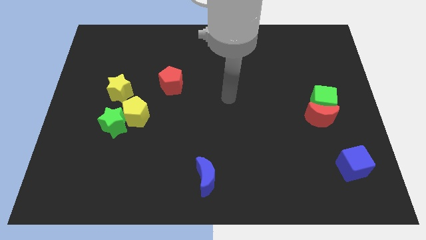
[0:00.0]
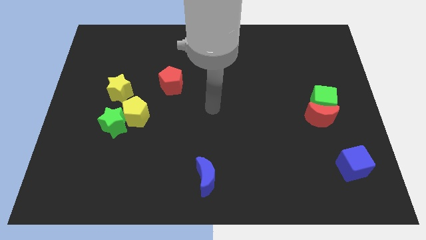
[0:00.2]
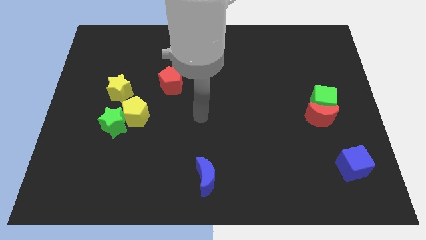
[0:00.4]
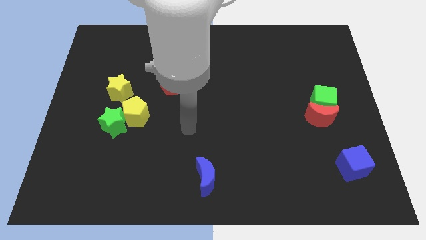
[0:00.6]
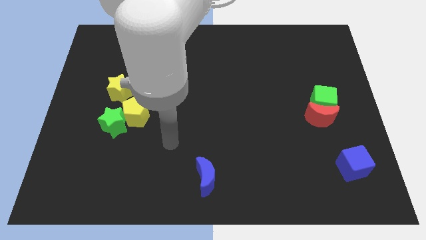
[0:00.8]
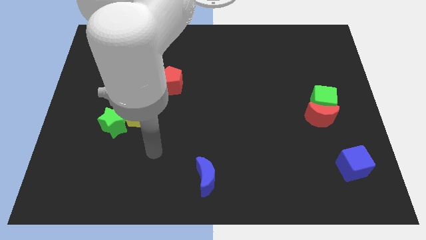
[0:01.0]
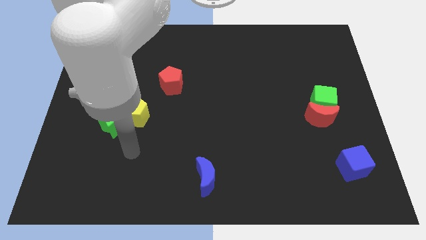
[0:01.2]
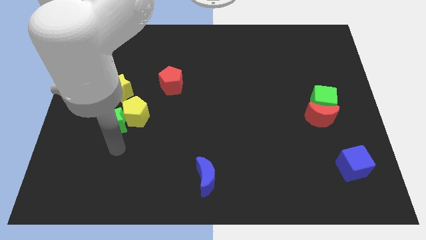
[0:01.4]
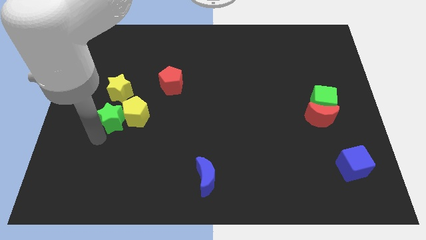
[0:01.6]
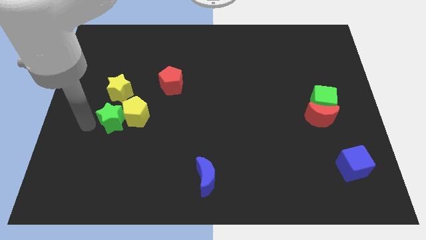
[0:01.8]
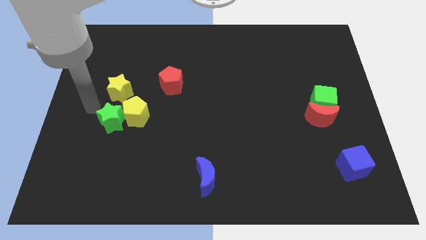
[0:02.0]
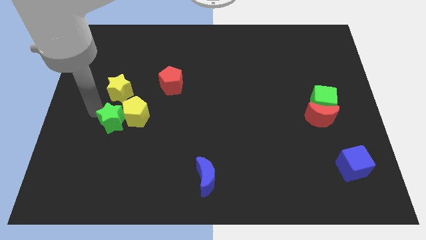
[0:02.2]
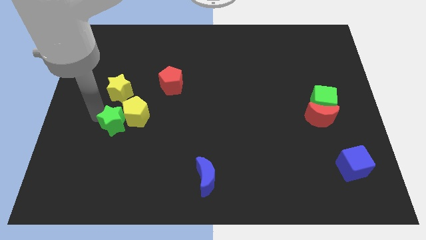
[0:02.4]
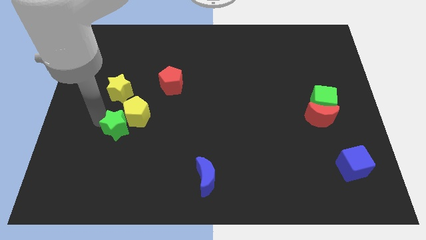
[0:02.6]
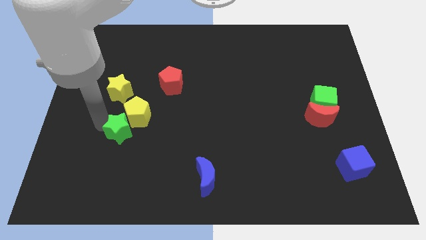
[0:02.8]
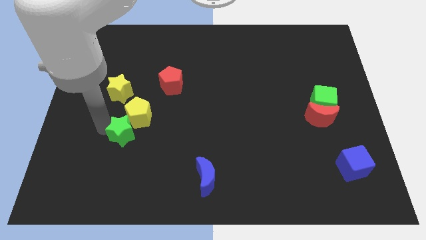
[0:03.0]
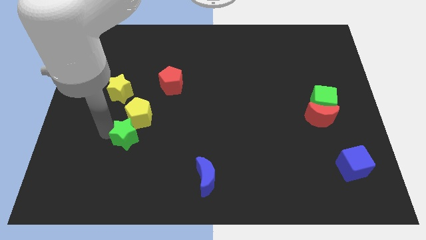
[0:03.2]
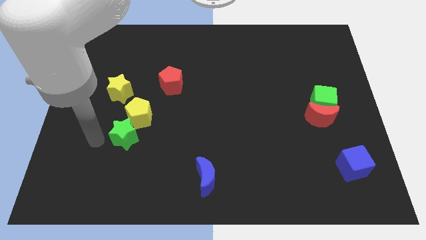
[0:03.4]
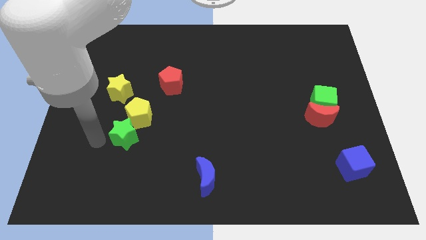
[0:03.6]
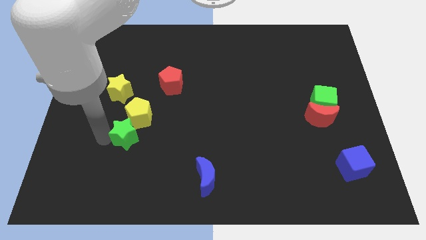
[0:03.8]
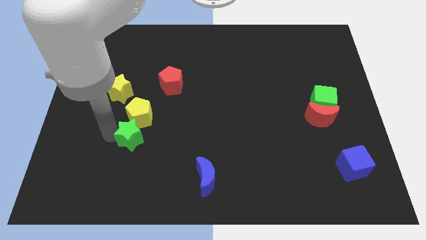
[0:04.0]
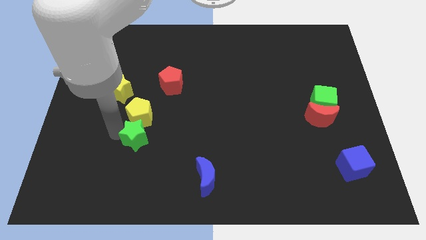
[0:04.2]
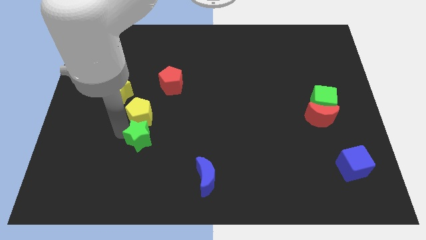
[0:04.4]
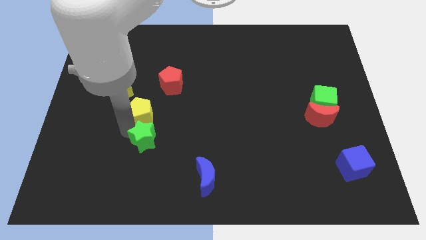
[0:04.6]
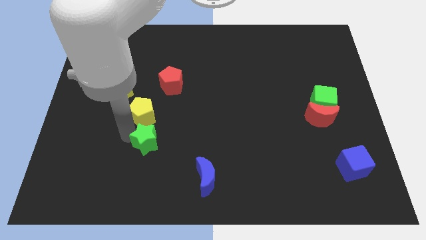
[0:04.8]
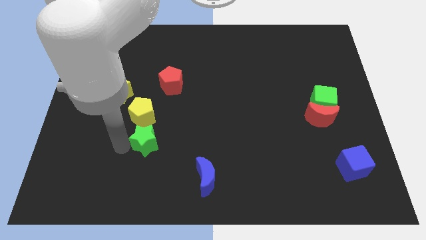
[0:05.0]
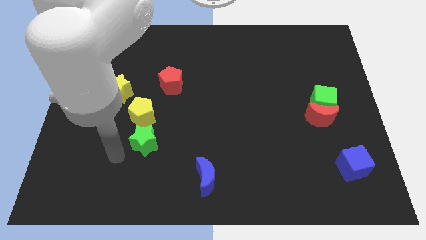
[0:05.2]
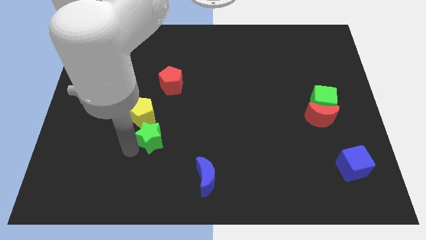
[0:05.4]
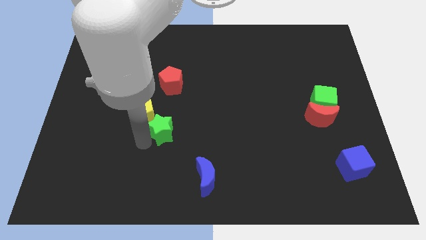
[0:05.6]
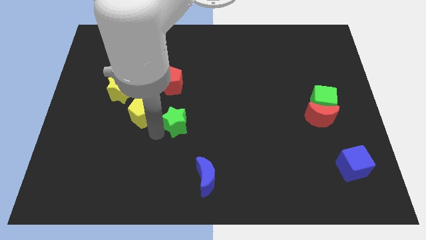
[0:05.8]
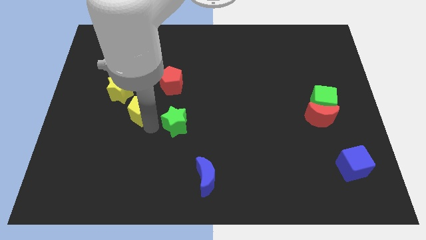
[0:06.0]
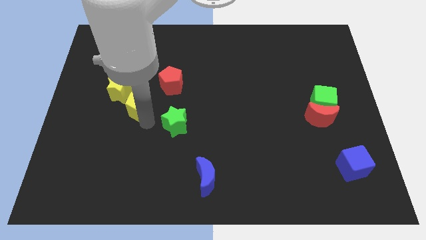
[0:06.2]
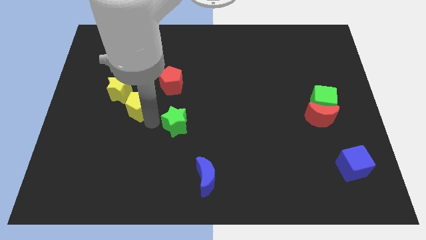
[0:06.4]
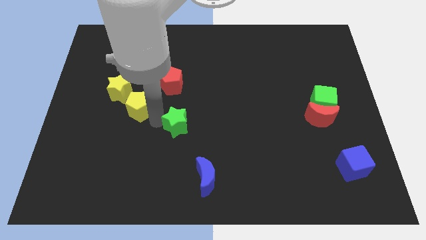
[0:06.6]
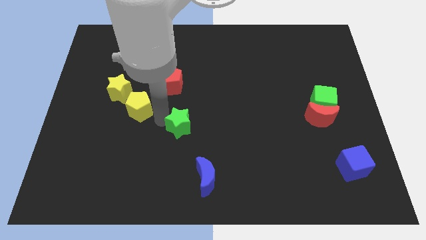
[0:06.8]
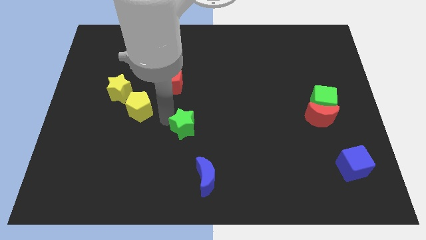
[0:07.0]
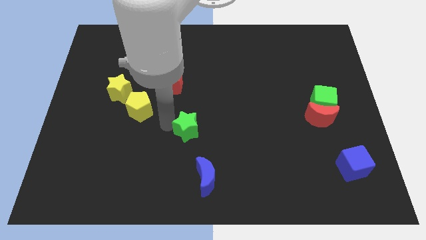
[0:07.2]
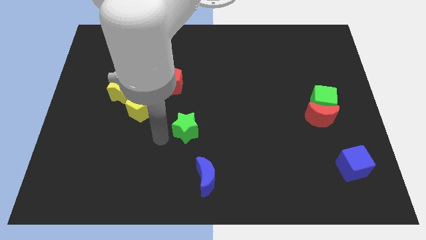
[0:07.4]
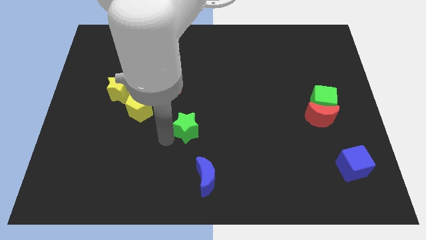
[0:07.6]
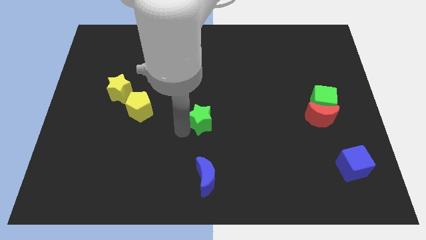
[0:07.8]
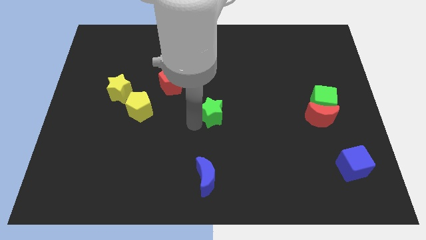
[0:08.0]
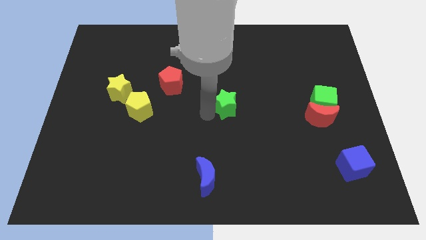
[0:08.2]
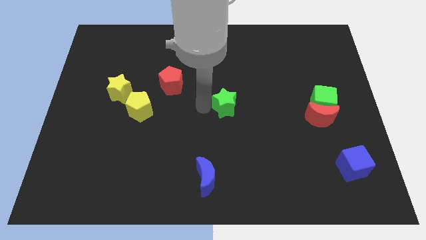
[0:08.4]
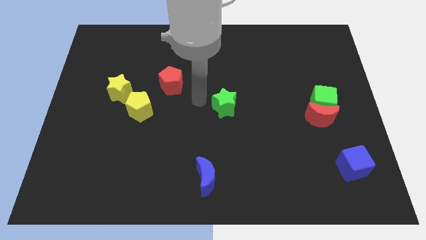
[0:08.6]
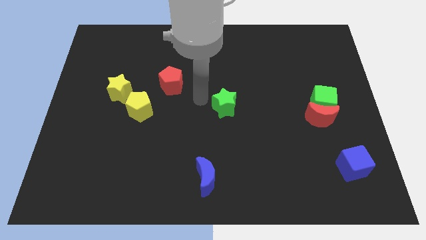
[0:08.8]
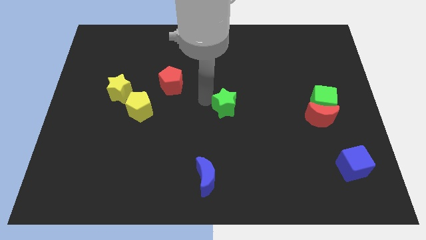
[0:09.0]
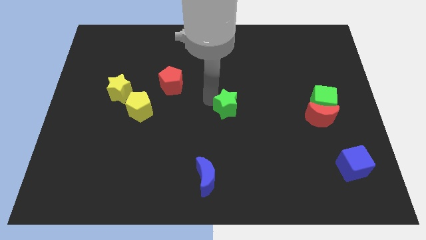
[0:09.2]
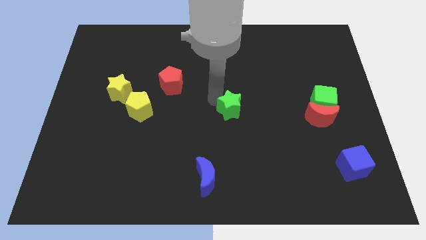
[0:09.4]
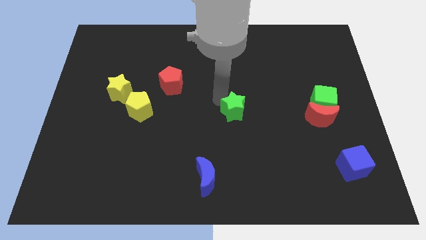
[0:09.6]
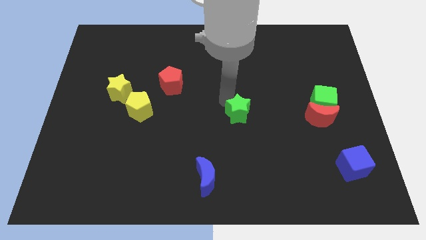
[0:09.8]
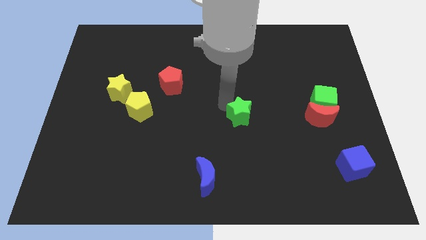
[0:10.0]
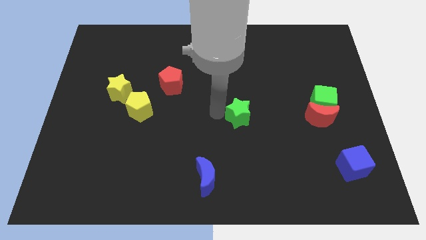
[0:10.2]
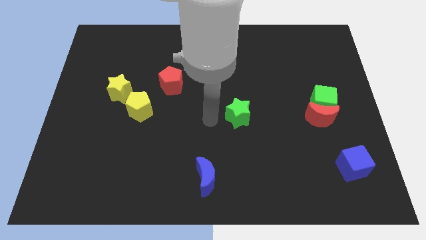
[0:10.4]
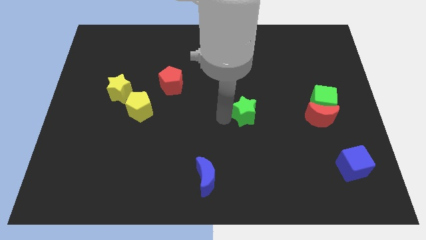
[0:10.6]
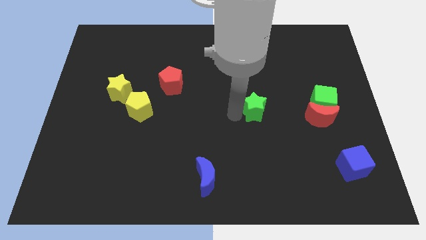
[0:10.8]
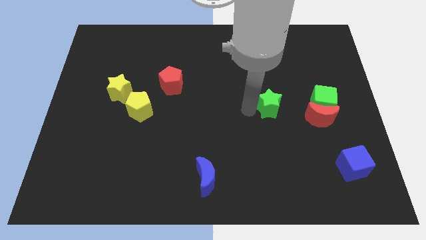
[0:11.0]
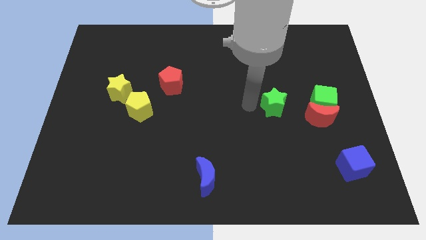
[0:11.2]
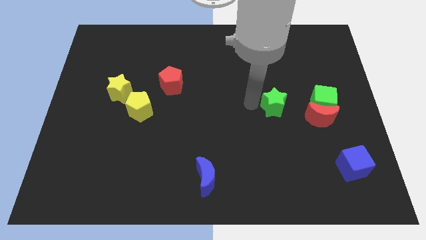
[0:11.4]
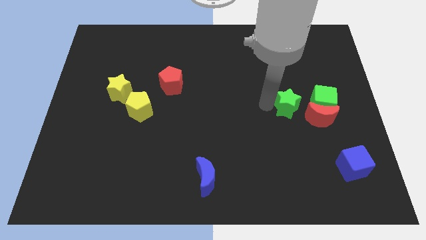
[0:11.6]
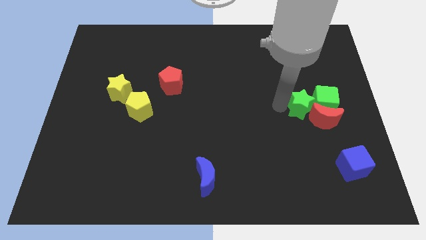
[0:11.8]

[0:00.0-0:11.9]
move the green star towards the green cube

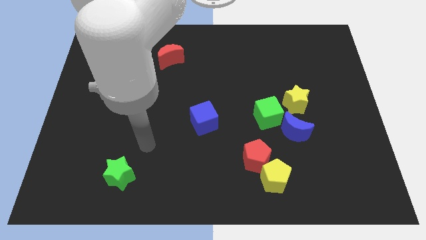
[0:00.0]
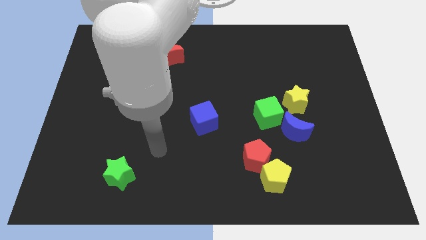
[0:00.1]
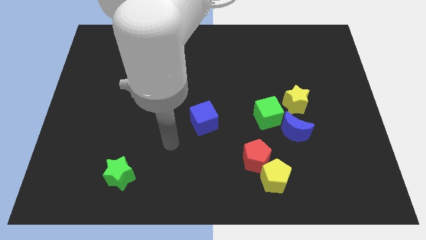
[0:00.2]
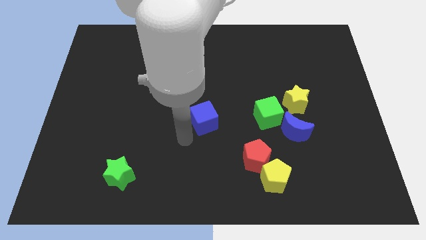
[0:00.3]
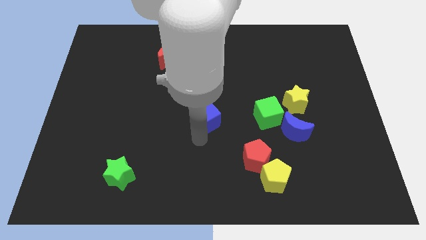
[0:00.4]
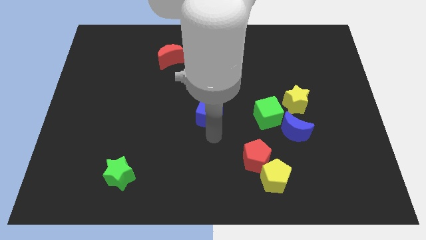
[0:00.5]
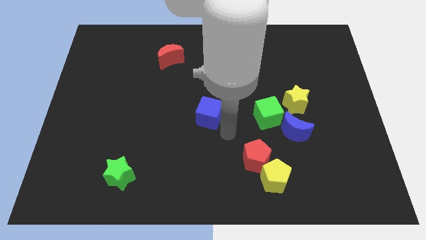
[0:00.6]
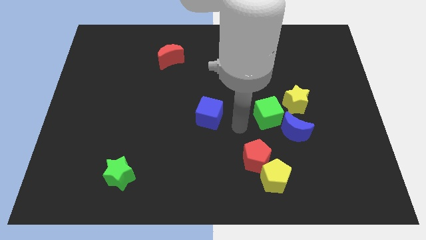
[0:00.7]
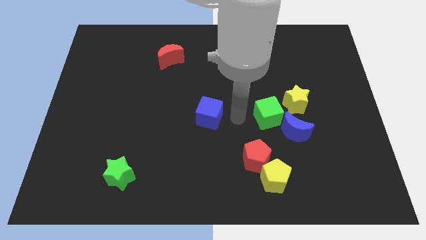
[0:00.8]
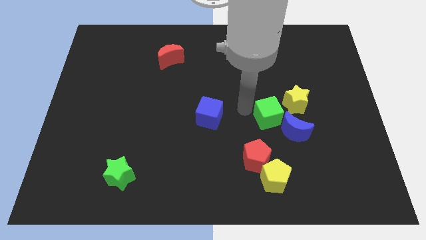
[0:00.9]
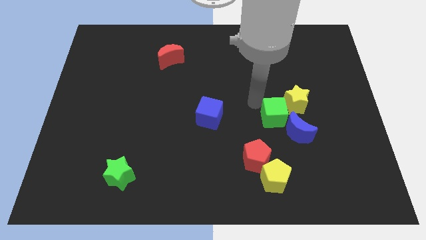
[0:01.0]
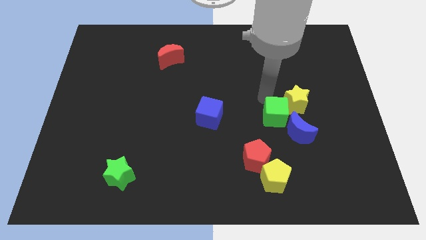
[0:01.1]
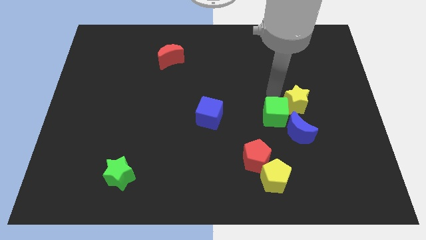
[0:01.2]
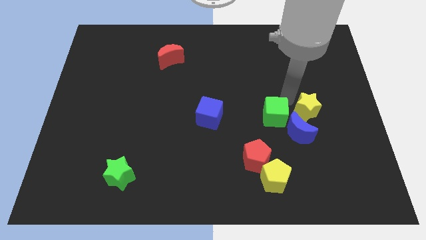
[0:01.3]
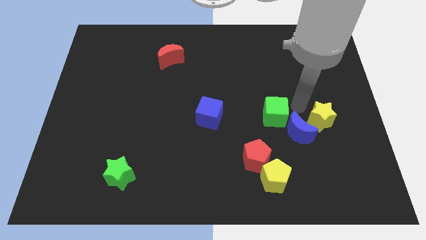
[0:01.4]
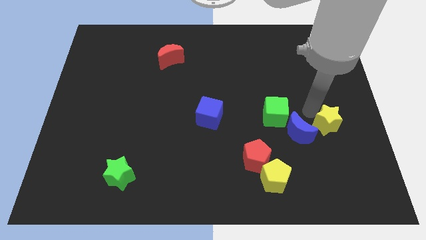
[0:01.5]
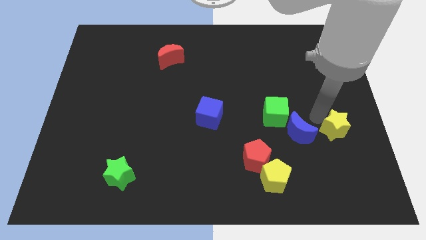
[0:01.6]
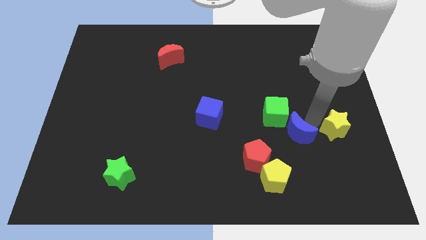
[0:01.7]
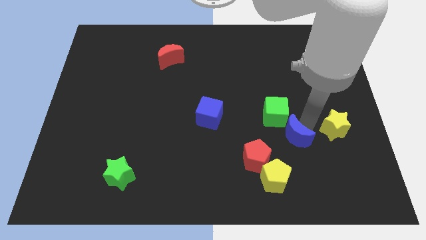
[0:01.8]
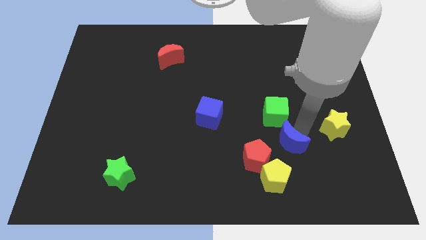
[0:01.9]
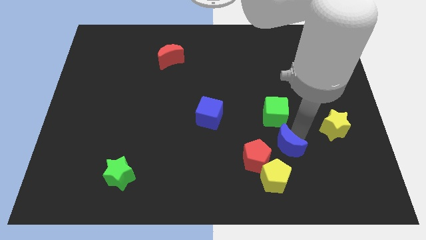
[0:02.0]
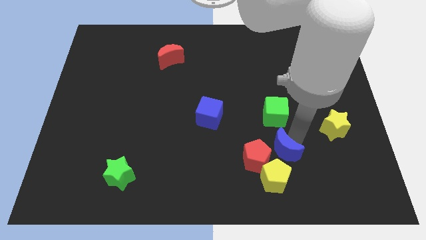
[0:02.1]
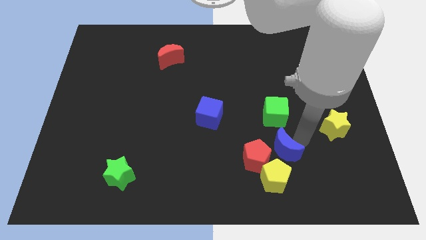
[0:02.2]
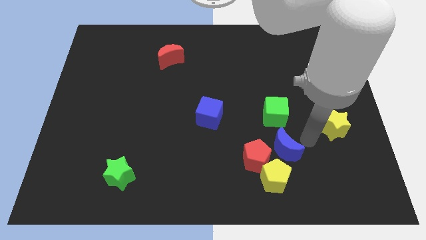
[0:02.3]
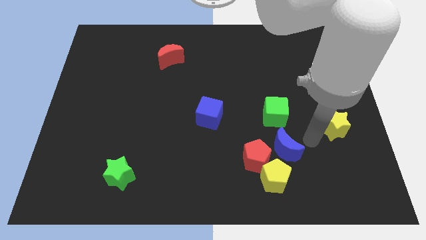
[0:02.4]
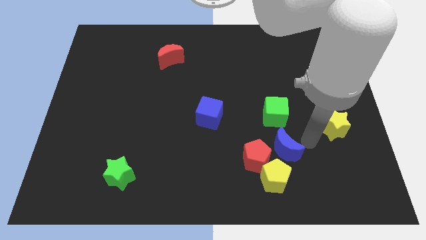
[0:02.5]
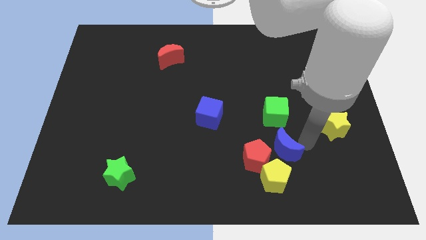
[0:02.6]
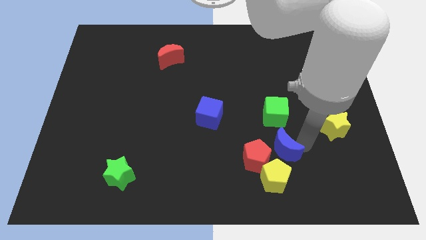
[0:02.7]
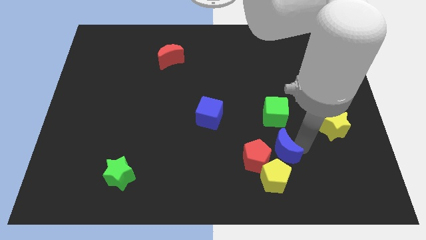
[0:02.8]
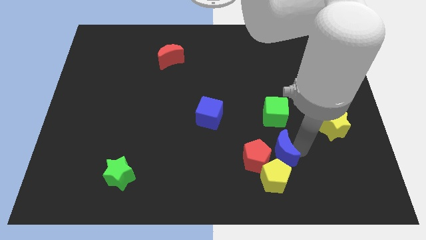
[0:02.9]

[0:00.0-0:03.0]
push the blue moon close to the red pentagon
